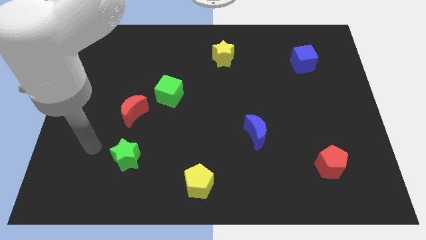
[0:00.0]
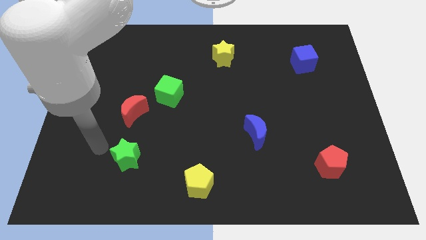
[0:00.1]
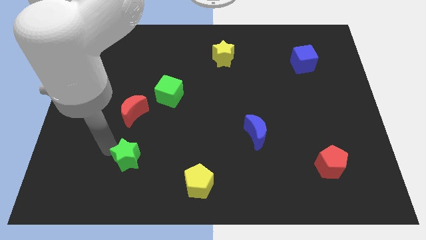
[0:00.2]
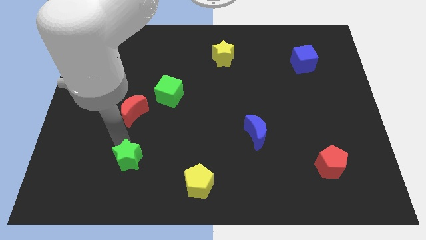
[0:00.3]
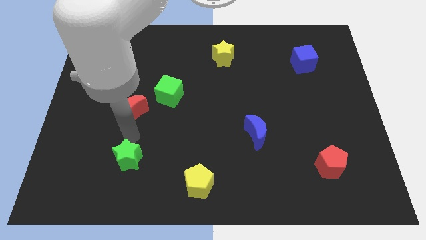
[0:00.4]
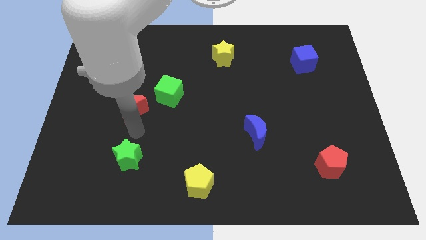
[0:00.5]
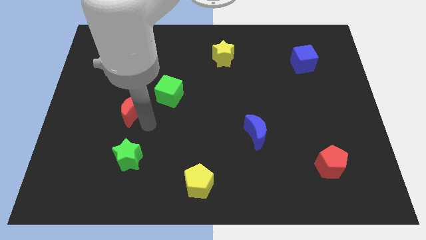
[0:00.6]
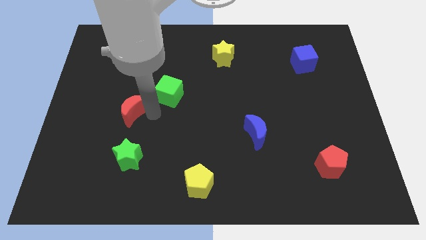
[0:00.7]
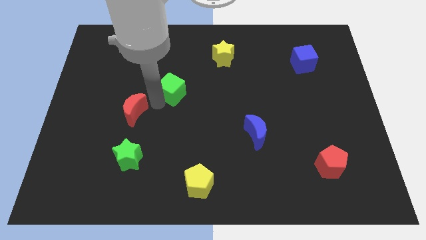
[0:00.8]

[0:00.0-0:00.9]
pull the red moon apart from the green cube

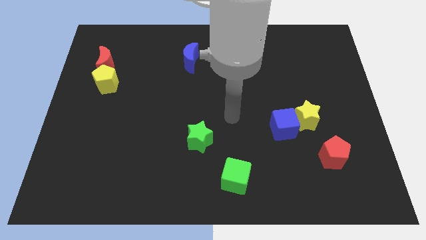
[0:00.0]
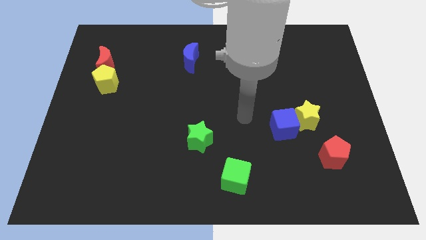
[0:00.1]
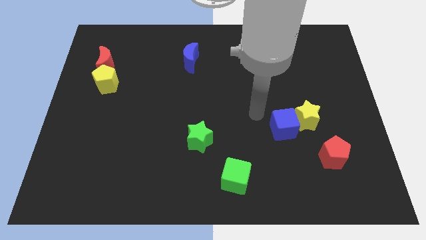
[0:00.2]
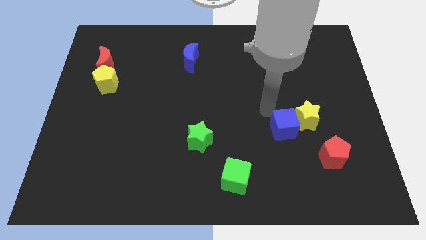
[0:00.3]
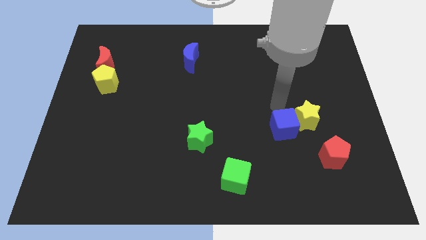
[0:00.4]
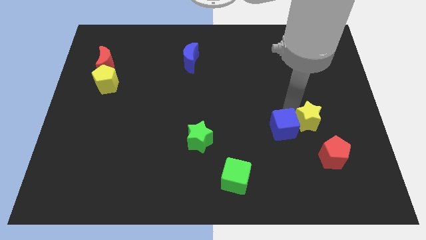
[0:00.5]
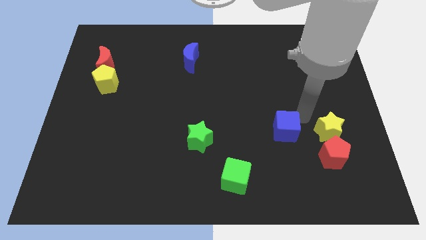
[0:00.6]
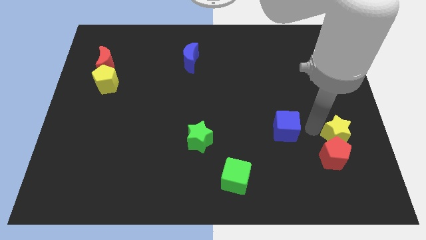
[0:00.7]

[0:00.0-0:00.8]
move the blue cube away from the yellow star

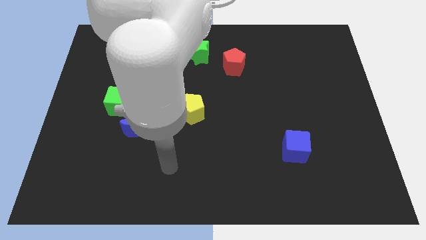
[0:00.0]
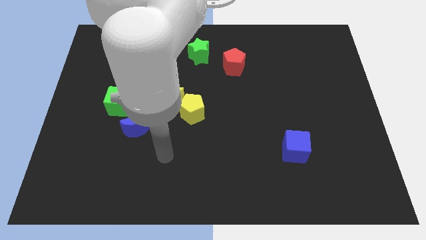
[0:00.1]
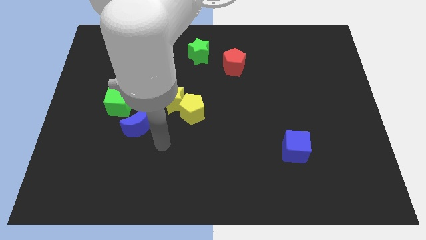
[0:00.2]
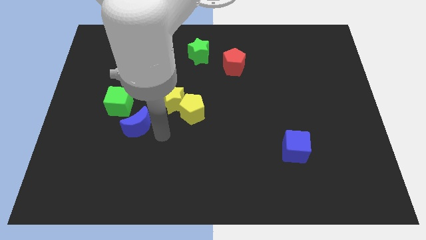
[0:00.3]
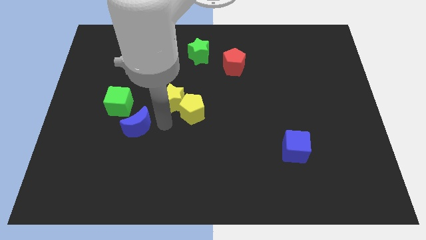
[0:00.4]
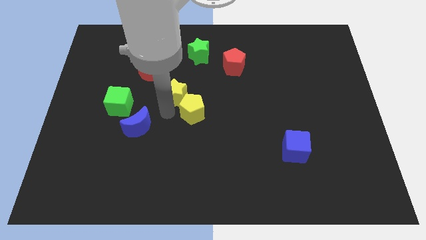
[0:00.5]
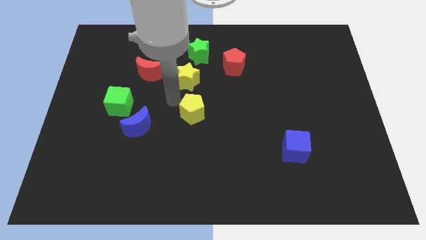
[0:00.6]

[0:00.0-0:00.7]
separate the yellow pentagon from the yellow star

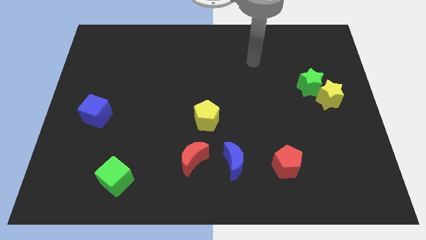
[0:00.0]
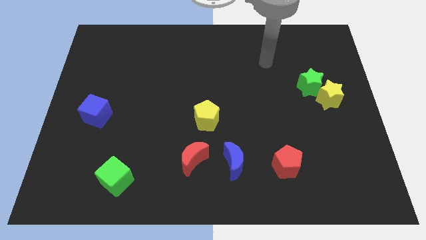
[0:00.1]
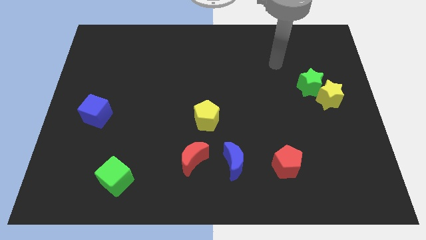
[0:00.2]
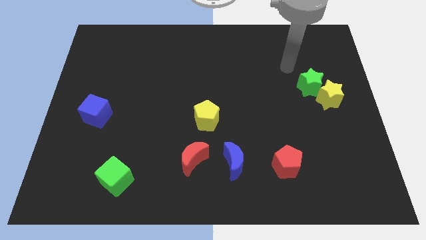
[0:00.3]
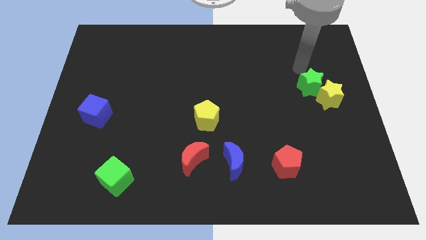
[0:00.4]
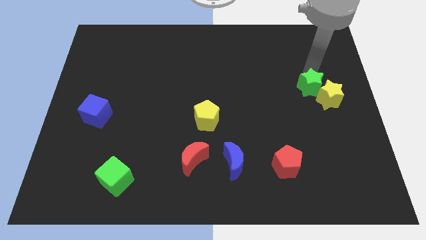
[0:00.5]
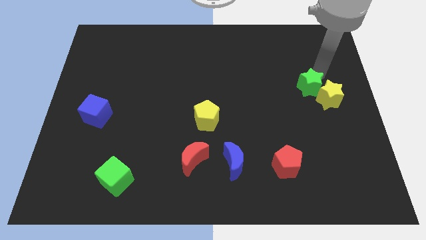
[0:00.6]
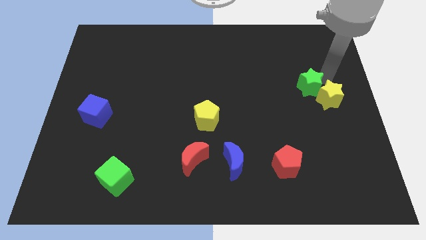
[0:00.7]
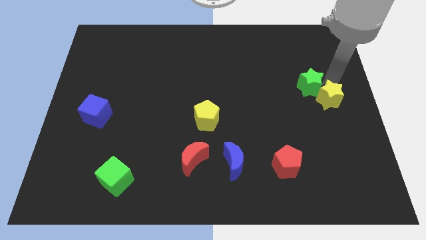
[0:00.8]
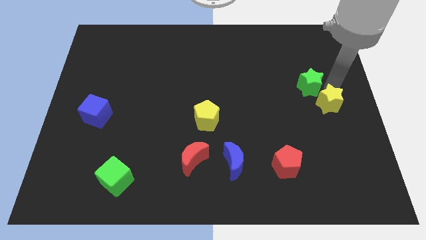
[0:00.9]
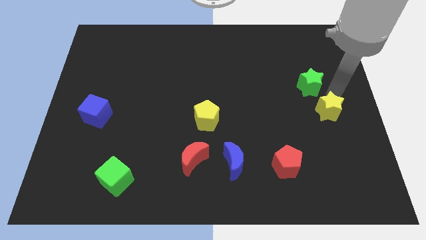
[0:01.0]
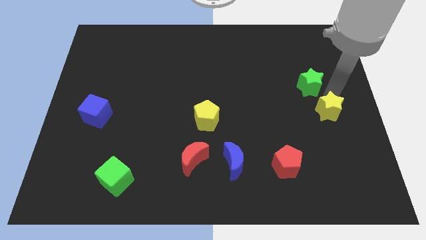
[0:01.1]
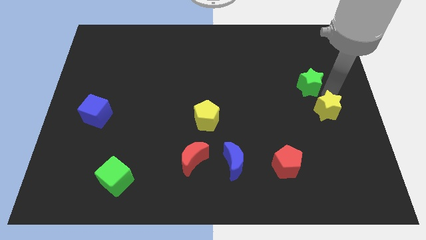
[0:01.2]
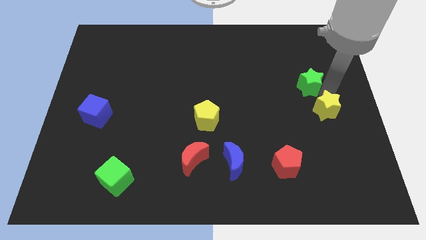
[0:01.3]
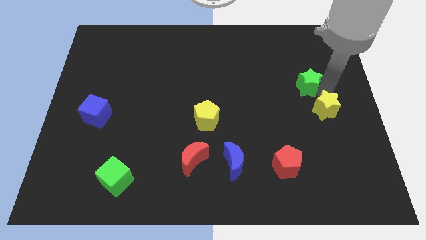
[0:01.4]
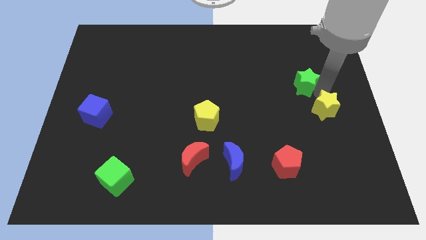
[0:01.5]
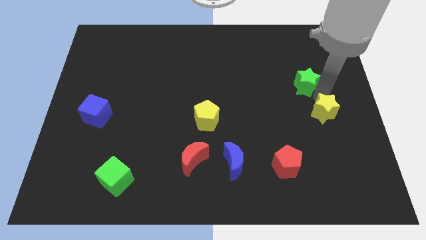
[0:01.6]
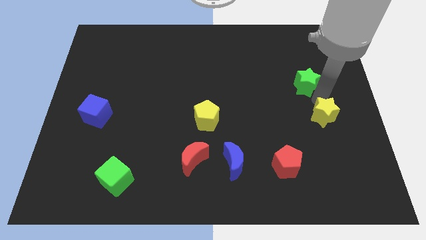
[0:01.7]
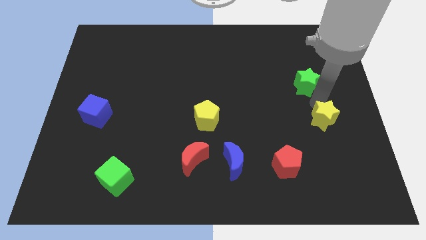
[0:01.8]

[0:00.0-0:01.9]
separate the green star from the yellow star

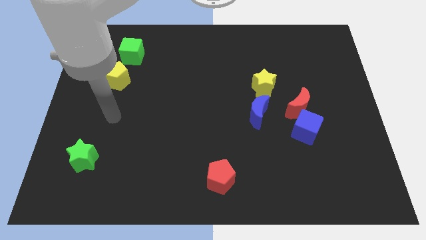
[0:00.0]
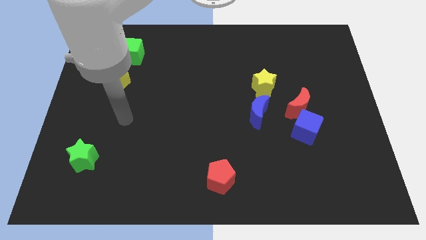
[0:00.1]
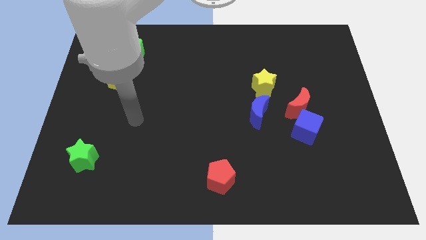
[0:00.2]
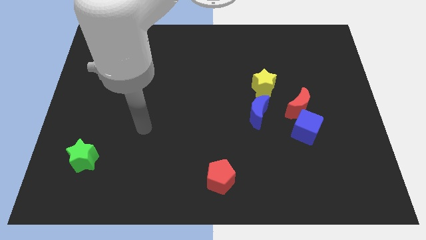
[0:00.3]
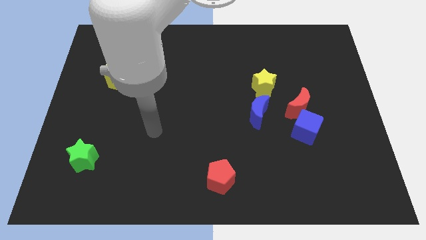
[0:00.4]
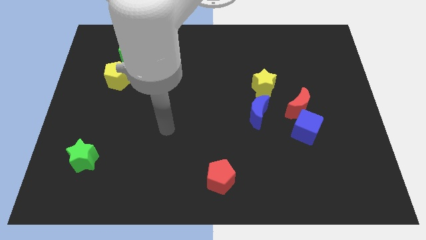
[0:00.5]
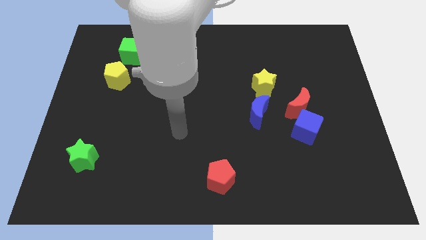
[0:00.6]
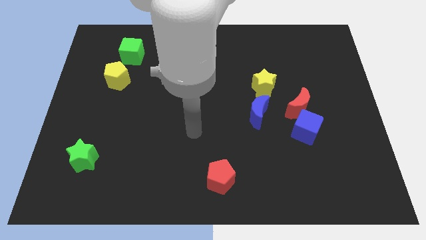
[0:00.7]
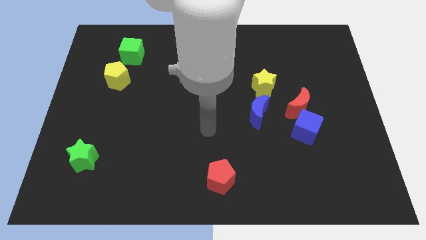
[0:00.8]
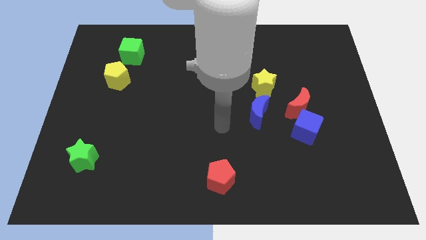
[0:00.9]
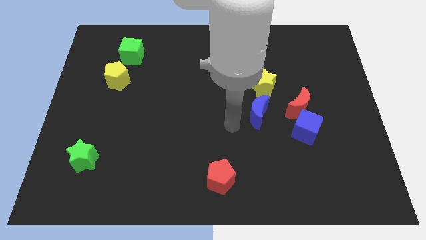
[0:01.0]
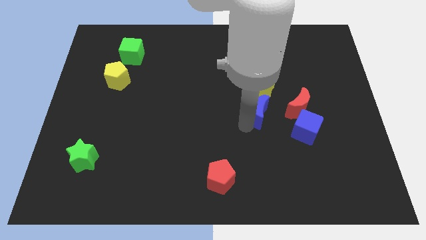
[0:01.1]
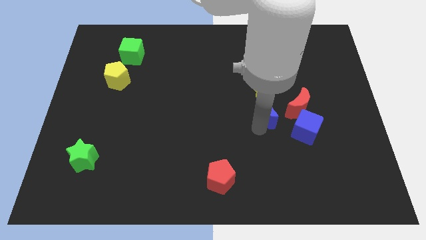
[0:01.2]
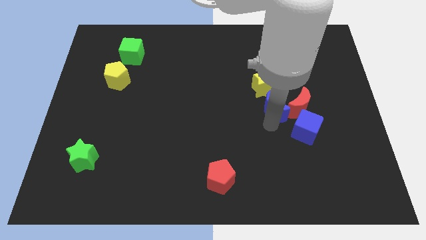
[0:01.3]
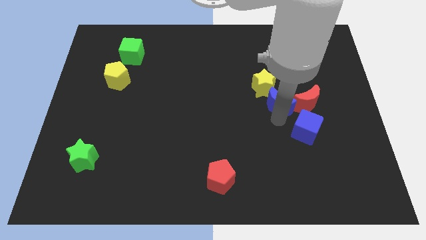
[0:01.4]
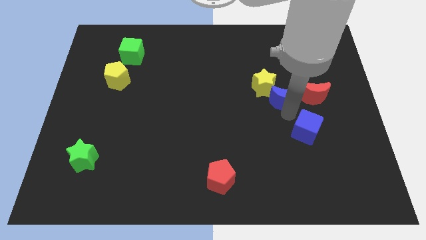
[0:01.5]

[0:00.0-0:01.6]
pull the blue cube apart from the red moon

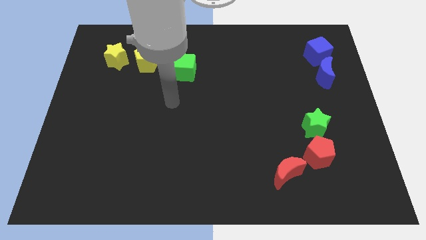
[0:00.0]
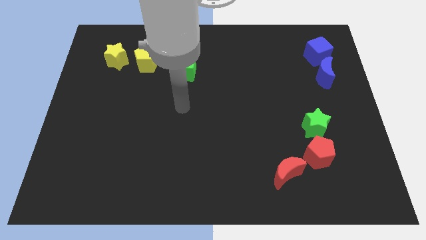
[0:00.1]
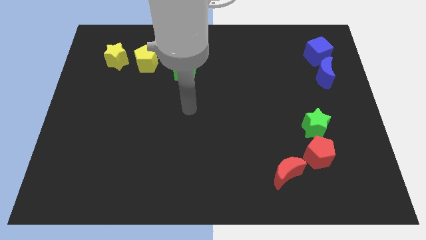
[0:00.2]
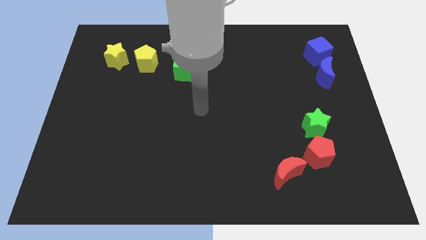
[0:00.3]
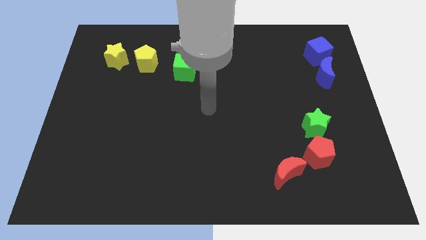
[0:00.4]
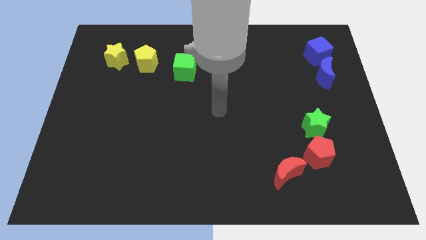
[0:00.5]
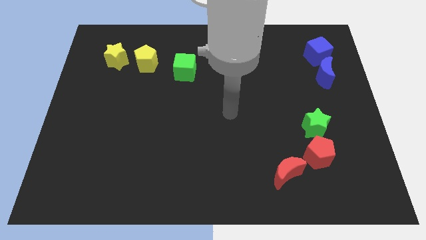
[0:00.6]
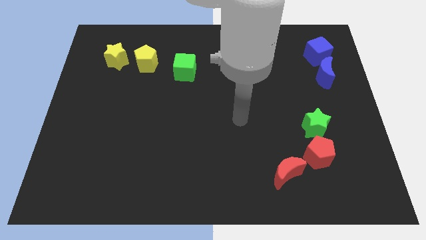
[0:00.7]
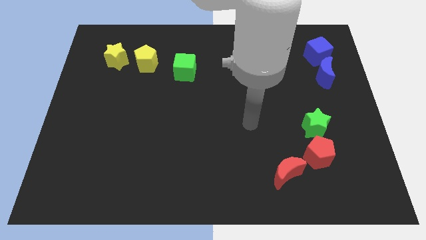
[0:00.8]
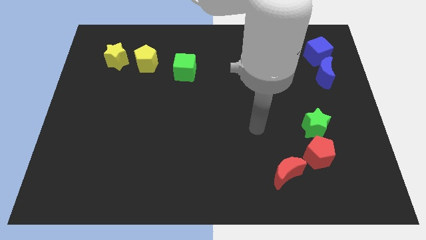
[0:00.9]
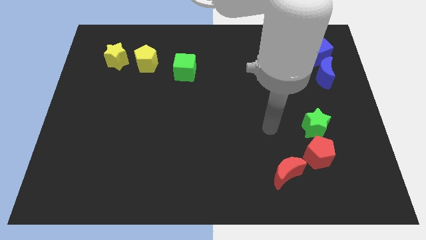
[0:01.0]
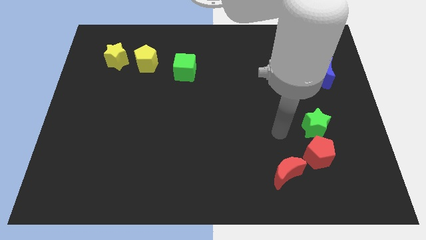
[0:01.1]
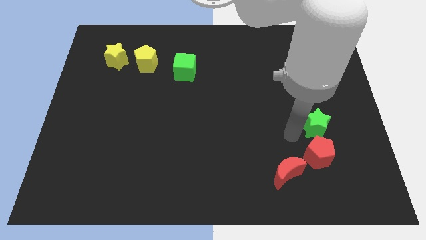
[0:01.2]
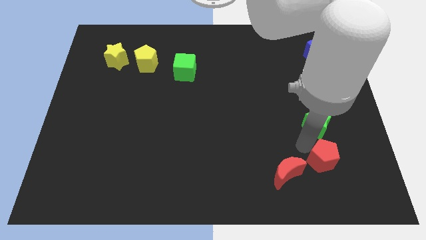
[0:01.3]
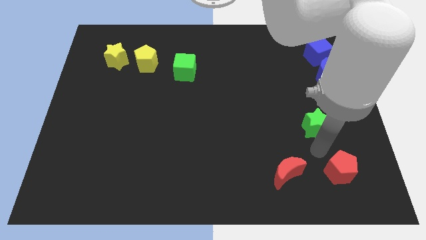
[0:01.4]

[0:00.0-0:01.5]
move the green star away from the red pentagon

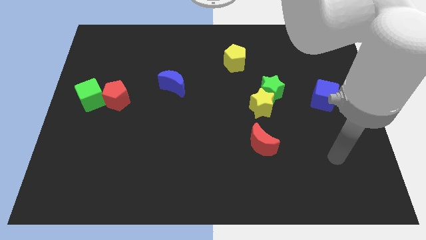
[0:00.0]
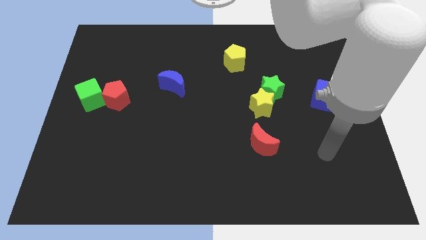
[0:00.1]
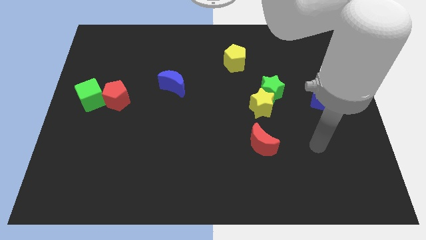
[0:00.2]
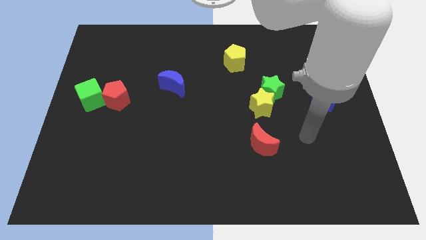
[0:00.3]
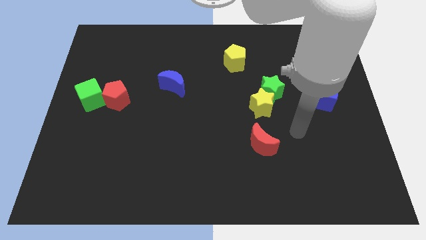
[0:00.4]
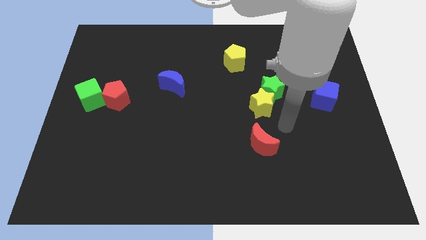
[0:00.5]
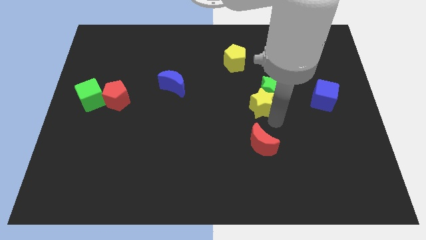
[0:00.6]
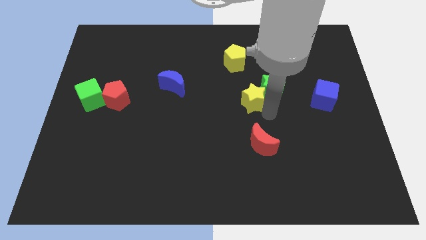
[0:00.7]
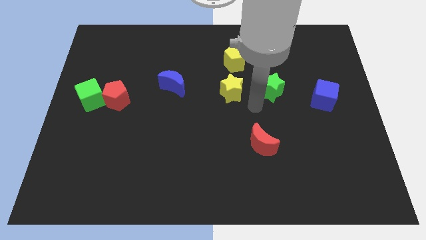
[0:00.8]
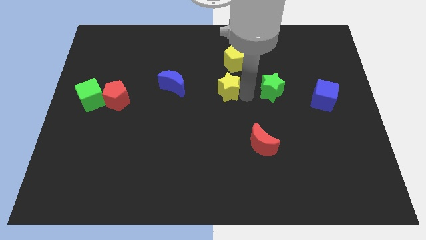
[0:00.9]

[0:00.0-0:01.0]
pull the green star apart from the yellow star

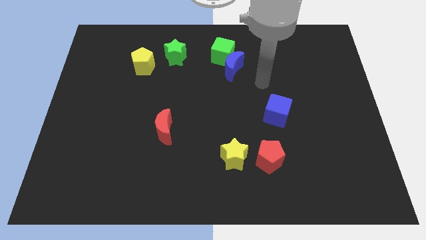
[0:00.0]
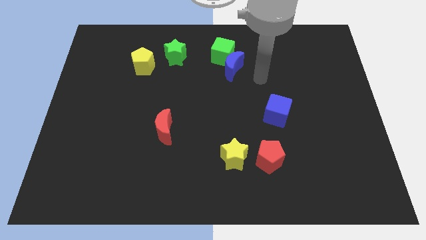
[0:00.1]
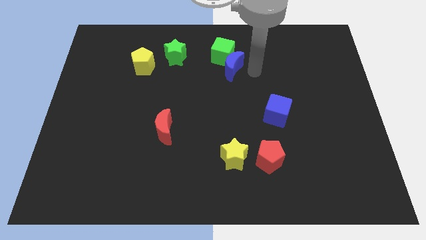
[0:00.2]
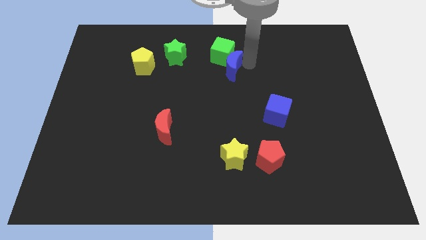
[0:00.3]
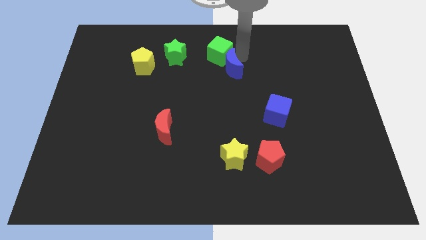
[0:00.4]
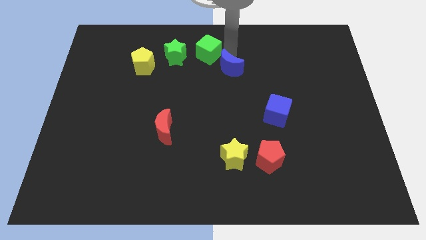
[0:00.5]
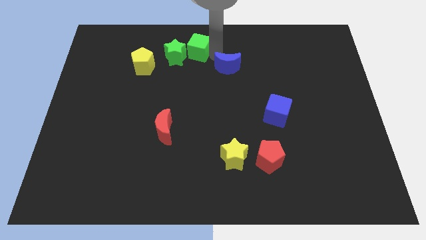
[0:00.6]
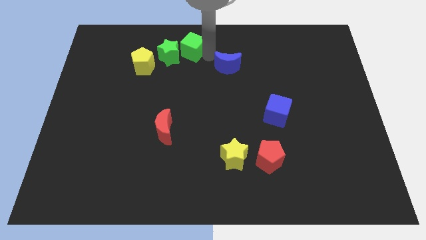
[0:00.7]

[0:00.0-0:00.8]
pull the blue moon apart from the green cube

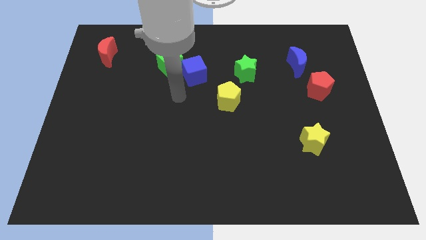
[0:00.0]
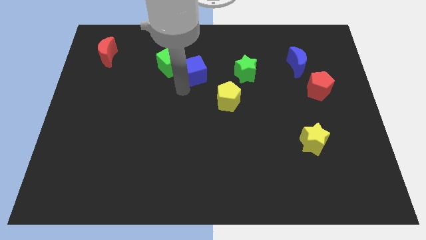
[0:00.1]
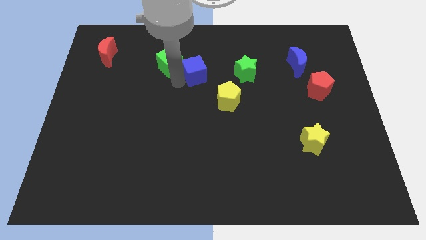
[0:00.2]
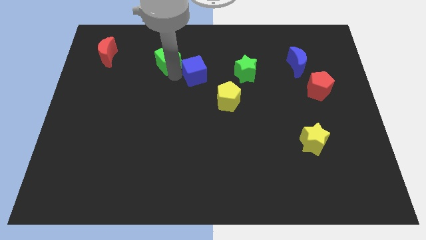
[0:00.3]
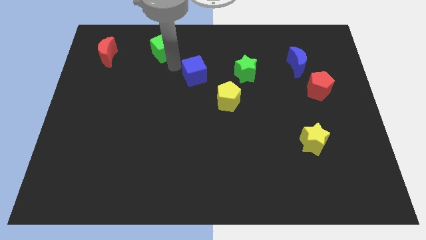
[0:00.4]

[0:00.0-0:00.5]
separate the blue cube from the green cube
